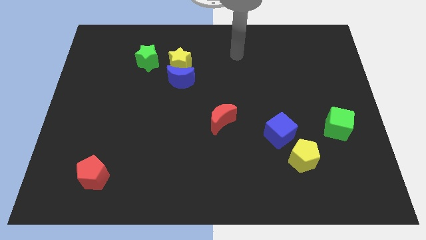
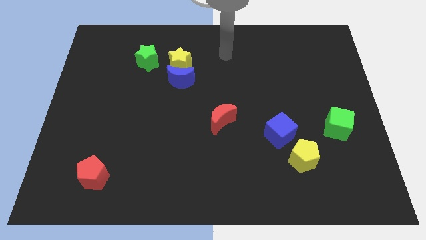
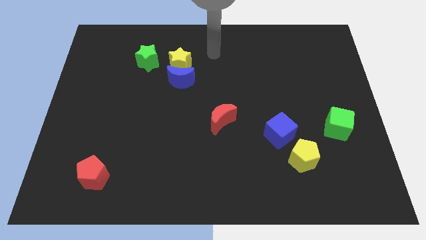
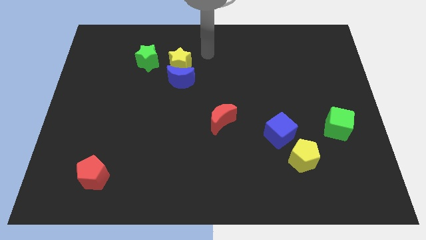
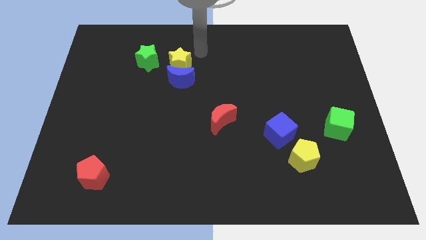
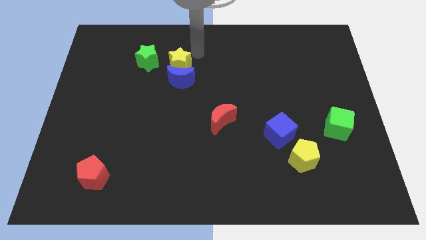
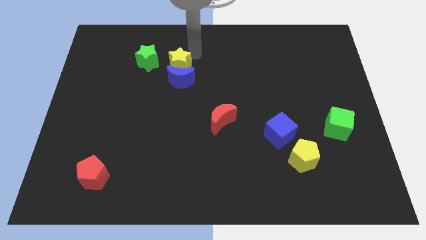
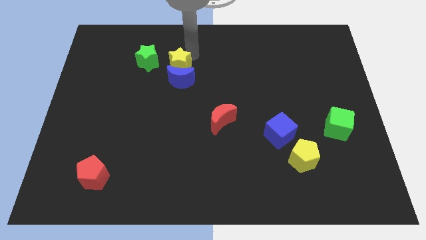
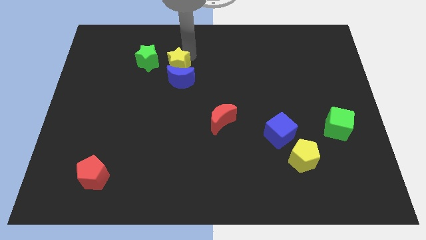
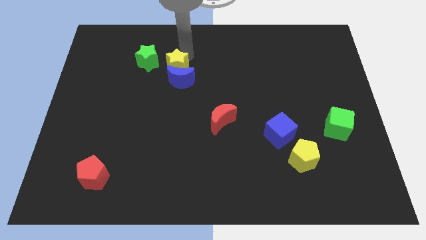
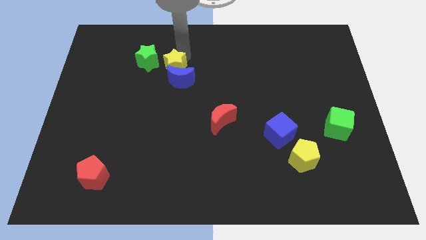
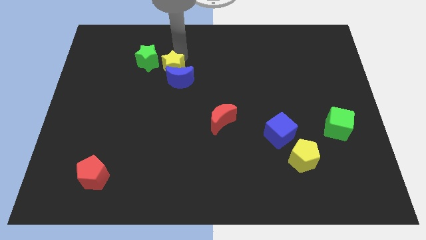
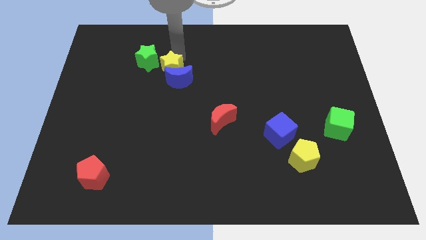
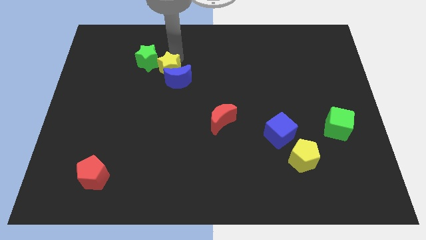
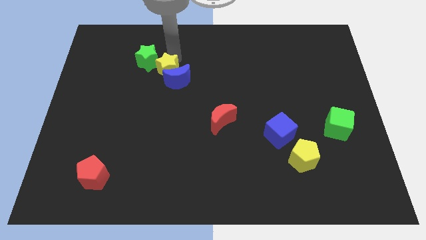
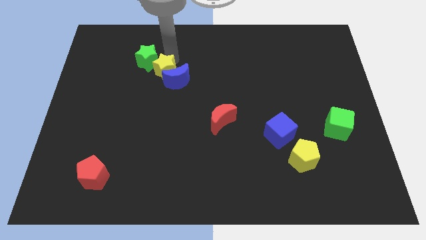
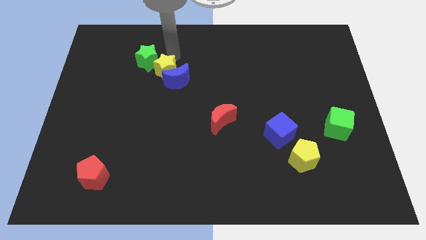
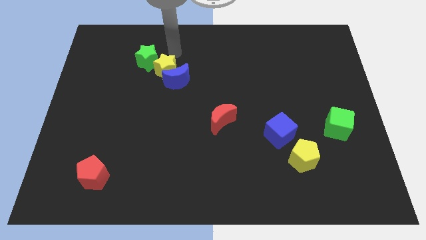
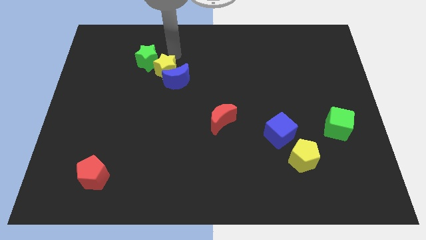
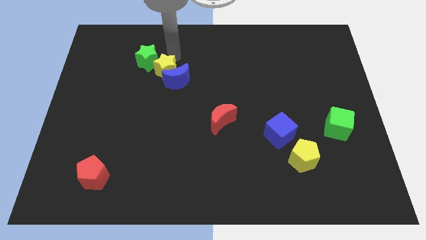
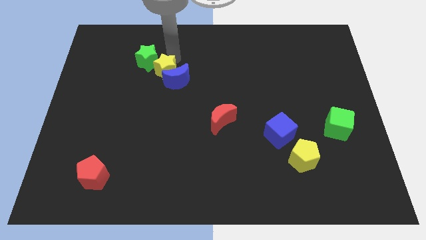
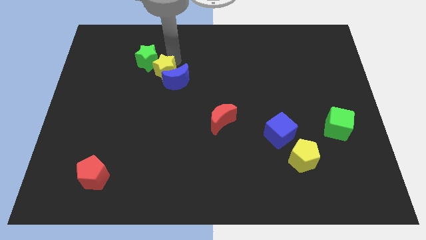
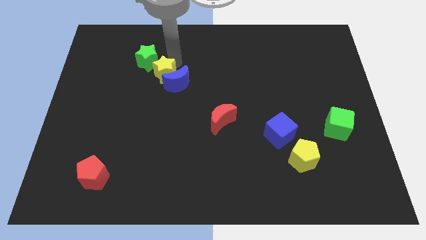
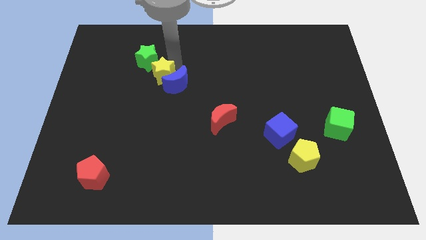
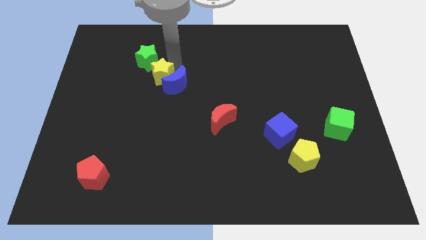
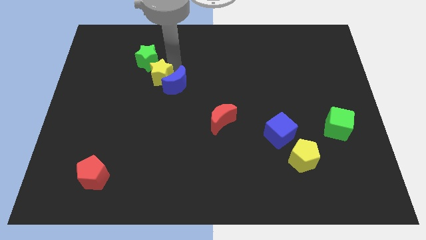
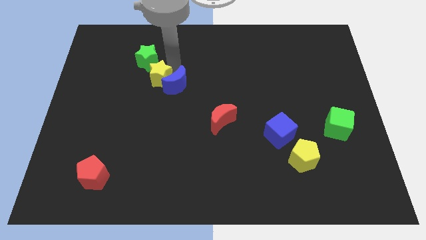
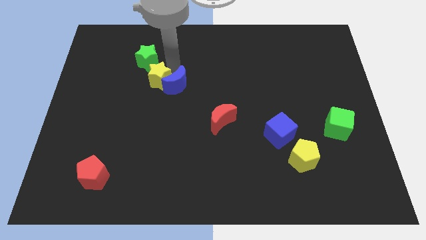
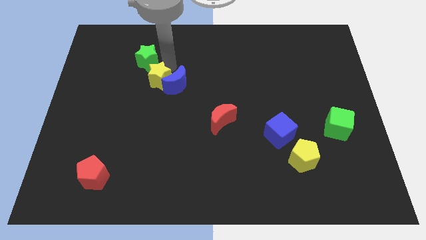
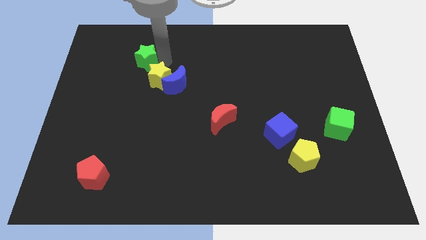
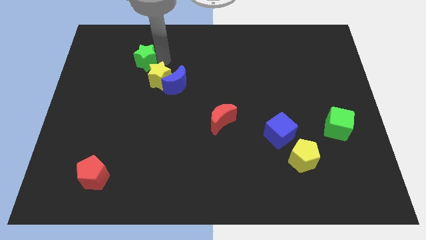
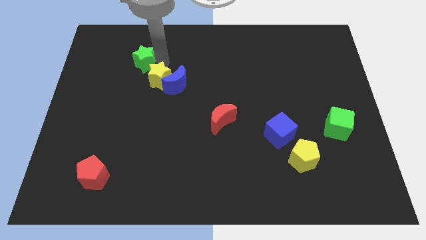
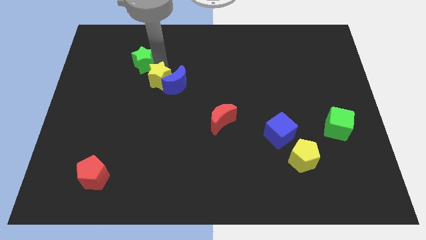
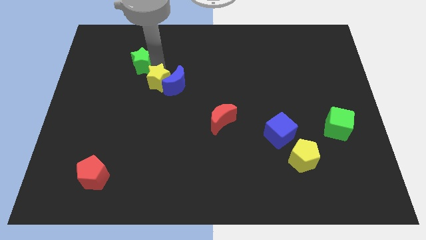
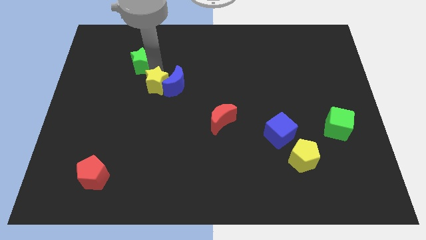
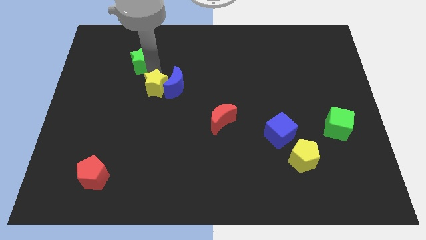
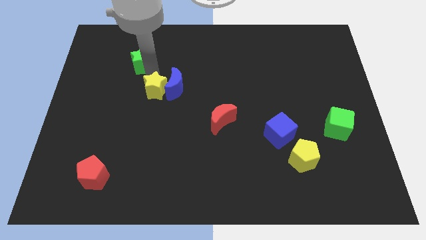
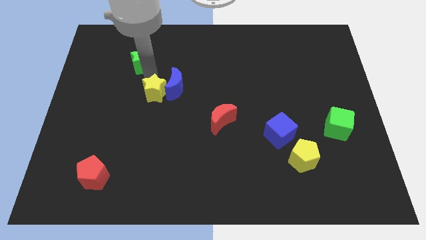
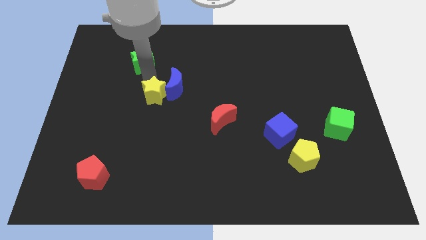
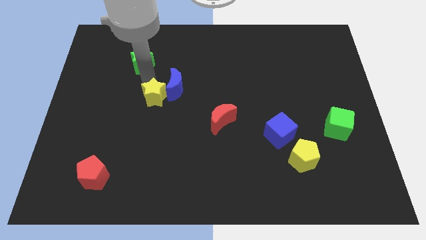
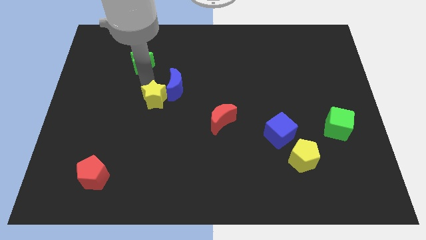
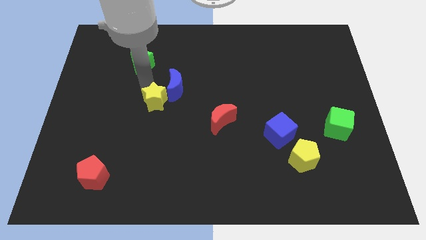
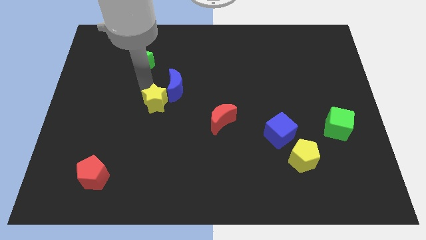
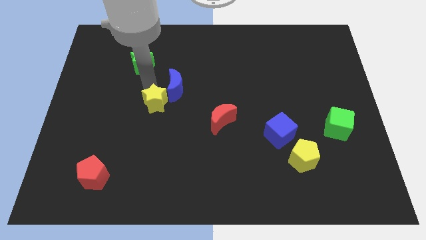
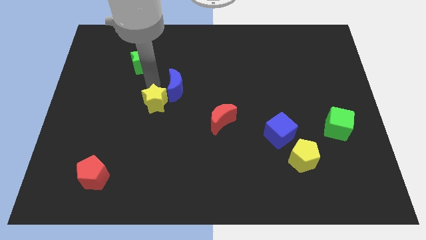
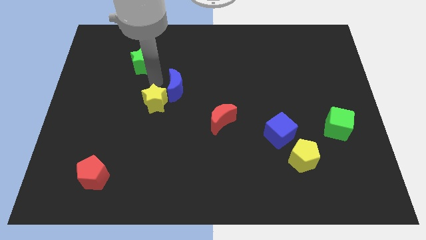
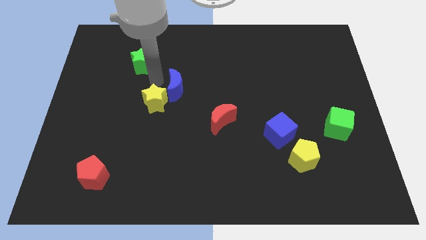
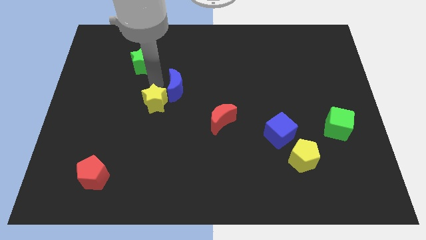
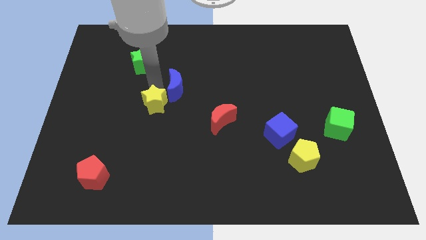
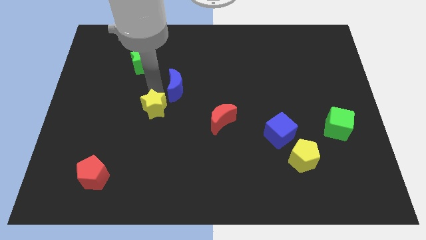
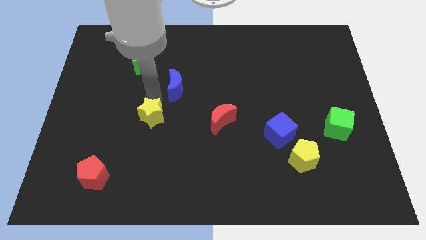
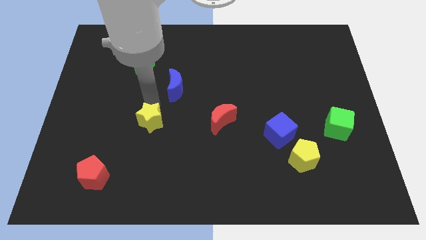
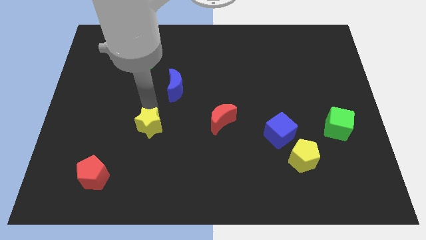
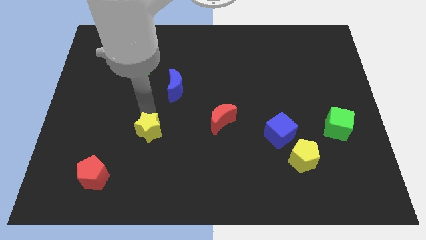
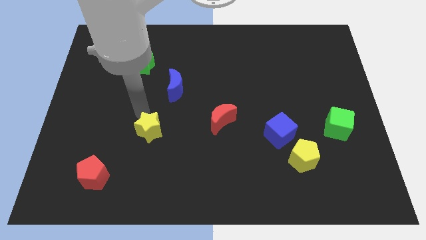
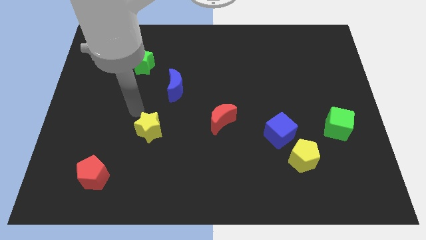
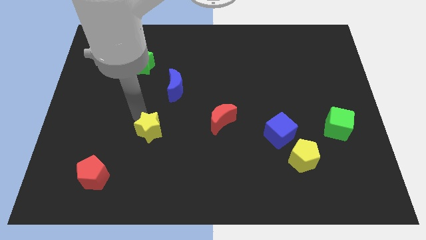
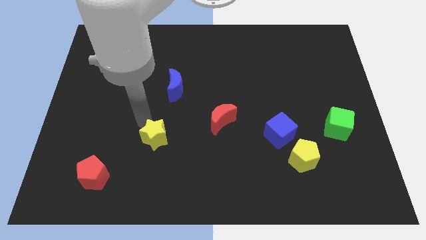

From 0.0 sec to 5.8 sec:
slide the yellow star downwards

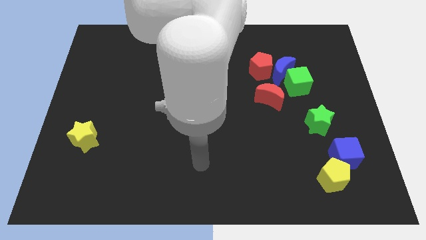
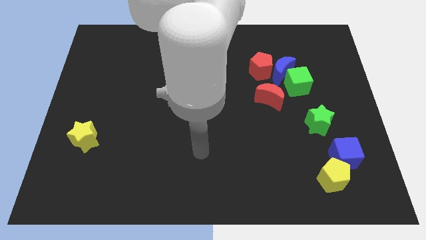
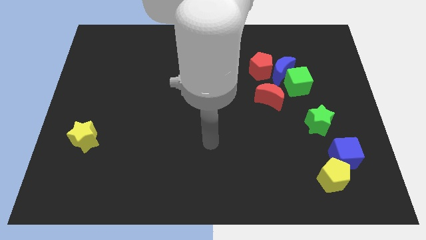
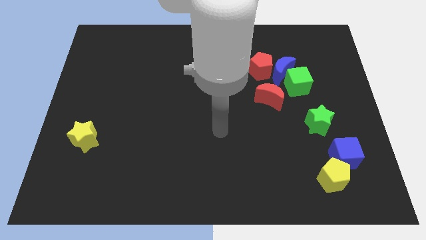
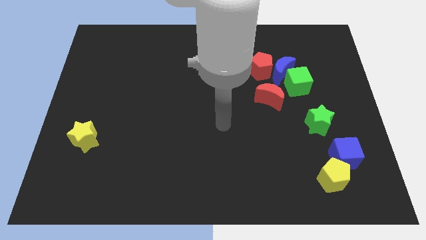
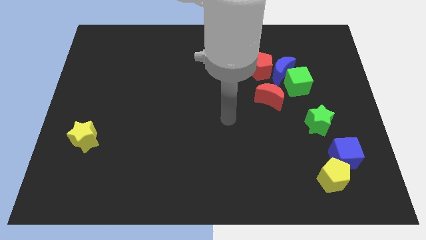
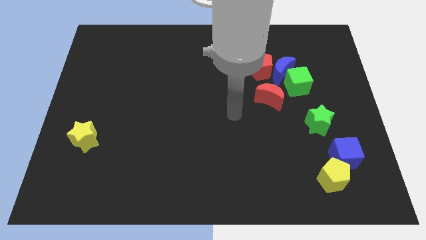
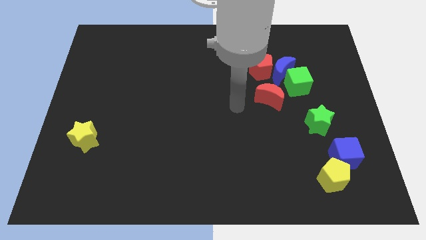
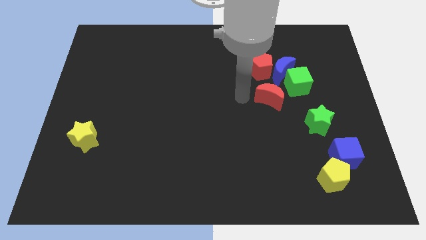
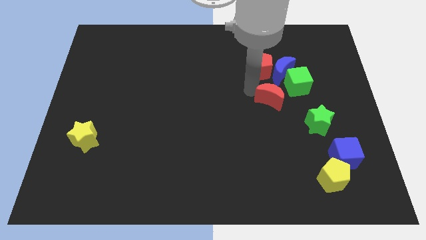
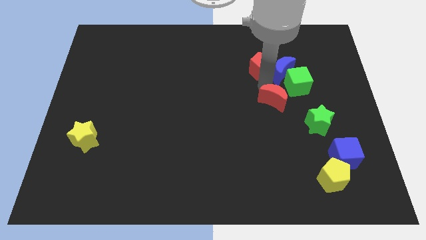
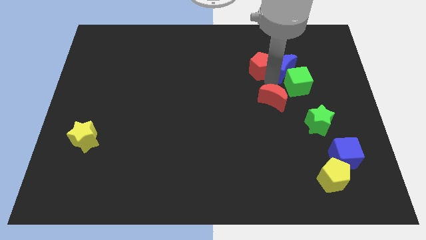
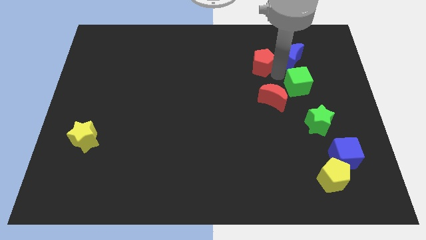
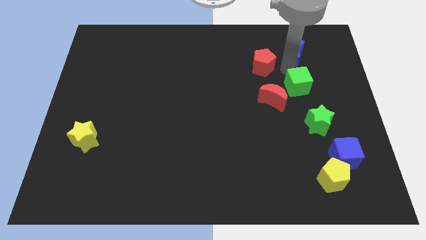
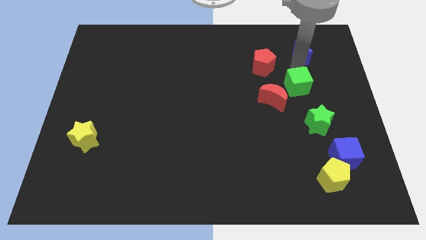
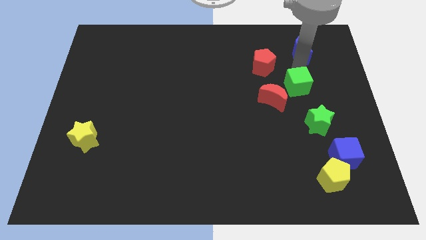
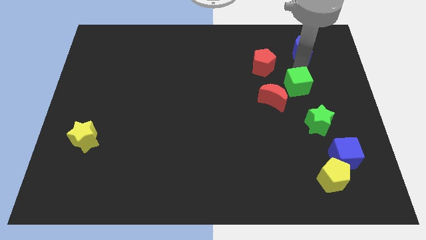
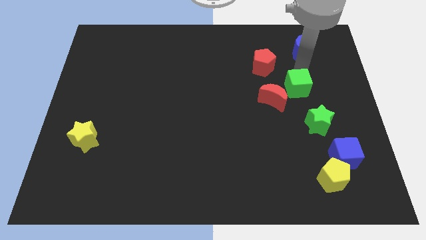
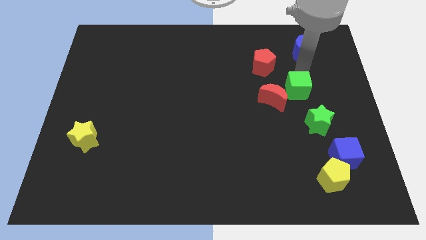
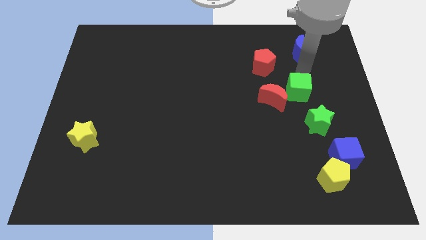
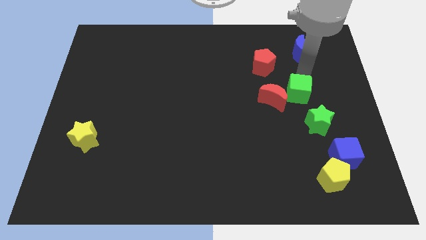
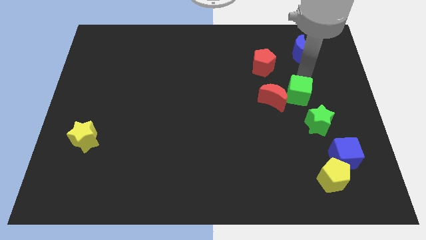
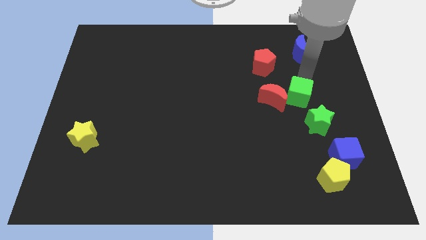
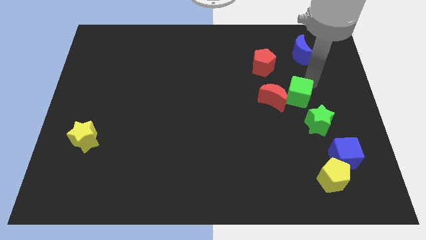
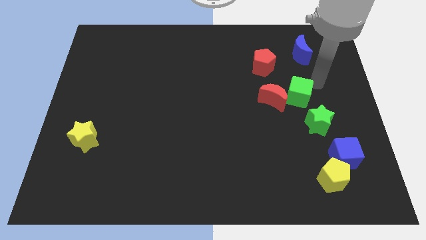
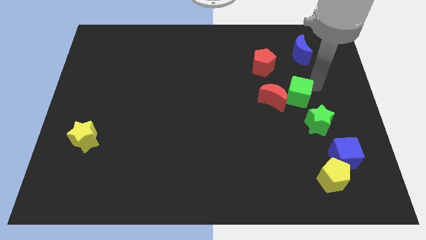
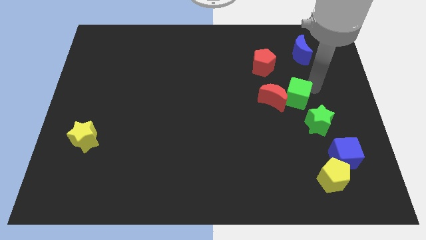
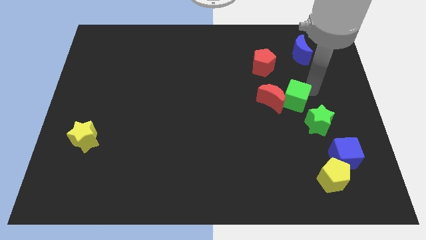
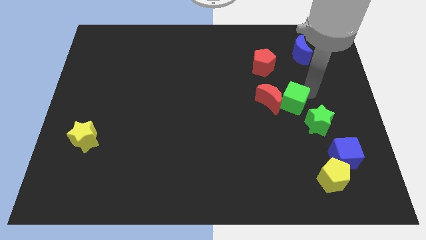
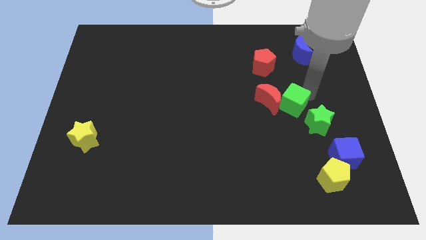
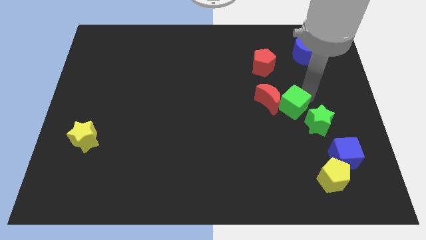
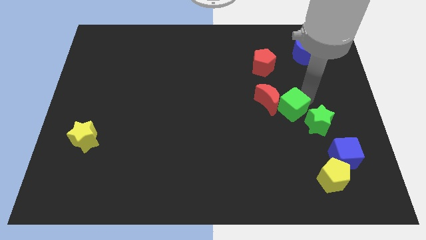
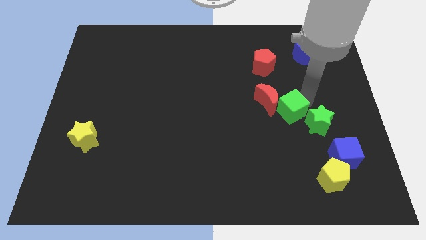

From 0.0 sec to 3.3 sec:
slide the green cube slightly down and then to the left
